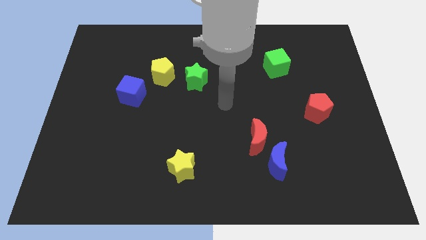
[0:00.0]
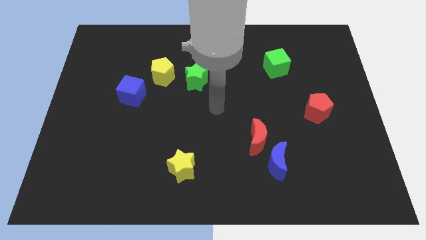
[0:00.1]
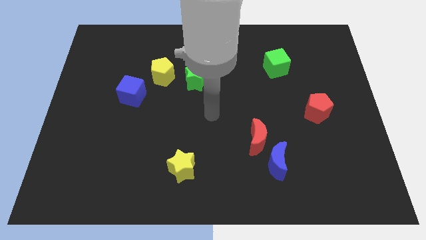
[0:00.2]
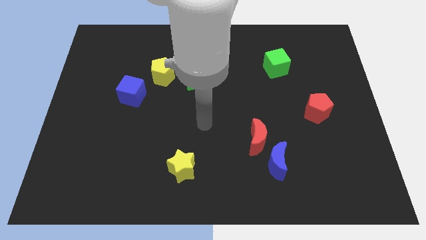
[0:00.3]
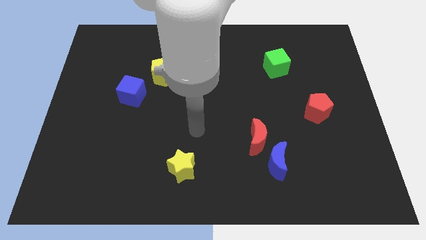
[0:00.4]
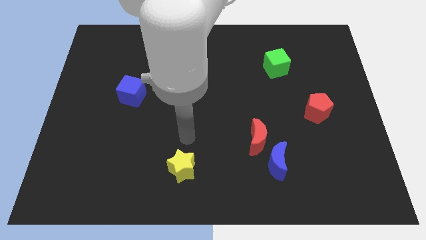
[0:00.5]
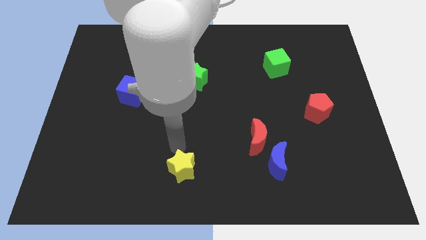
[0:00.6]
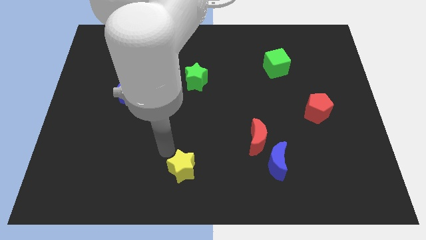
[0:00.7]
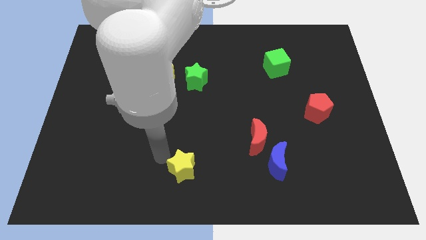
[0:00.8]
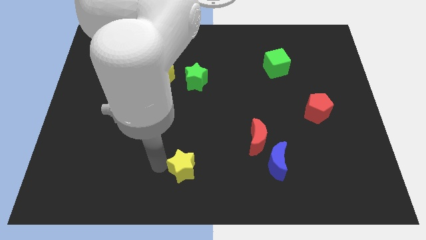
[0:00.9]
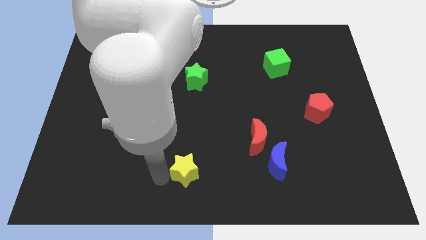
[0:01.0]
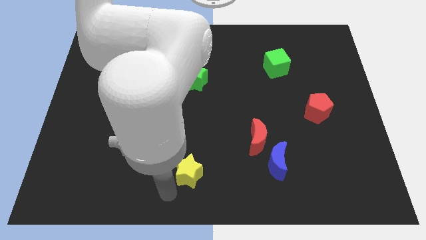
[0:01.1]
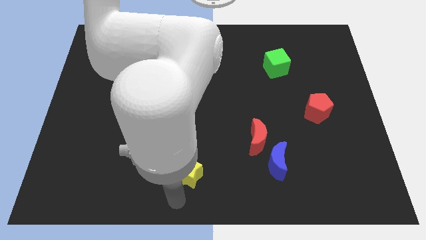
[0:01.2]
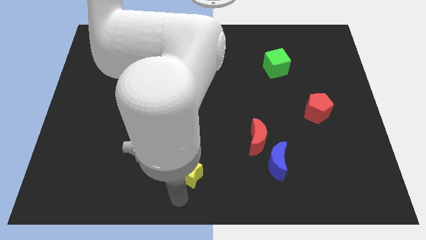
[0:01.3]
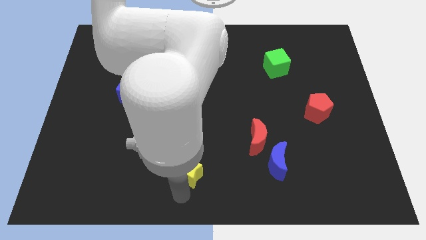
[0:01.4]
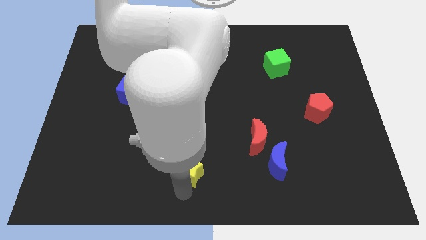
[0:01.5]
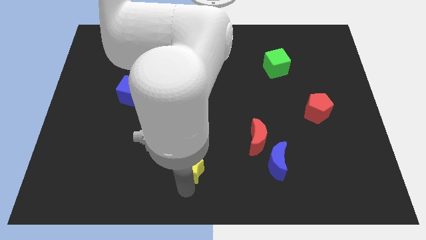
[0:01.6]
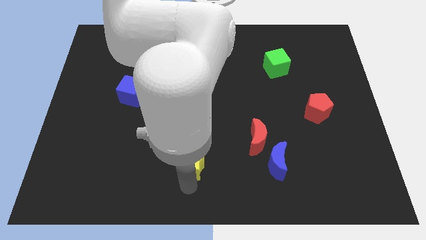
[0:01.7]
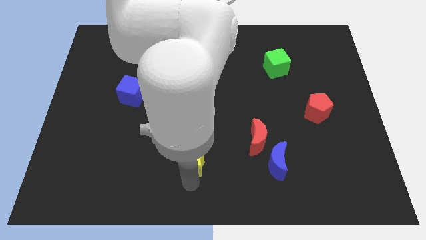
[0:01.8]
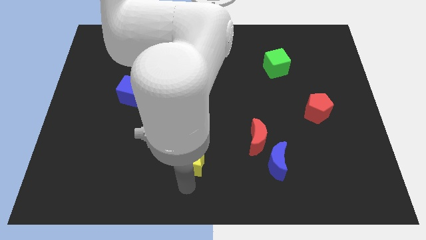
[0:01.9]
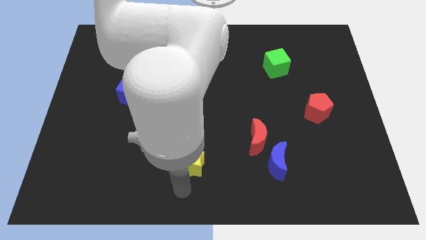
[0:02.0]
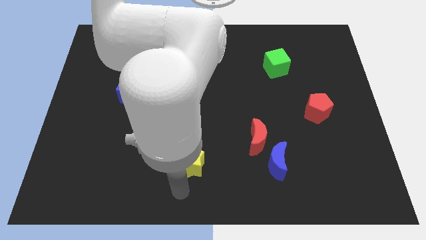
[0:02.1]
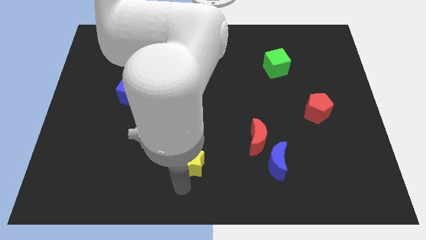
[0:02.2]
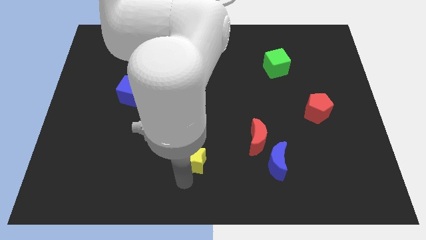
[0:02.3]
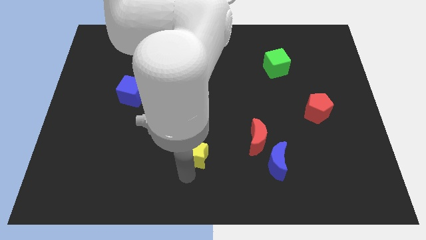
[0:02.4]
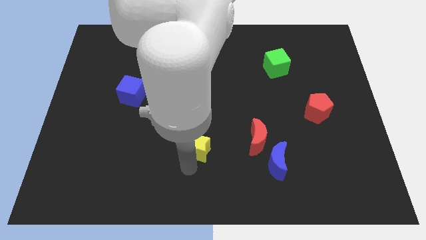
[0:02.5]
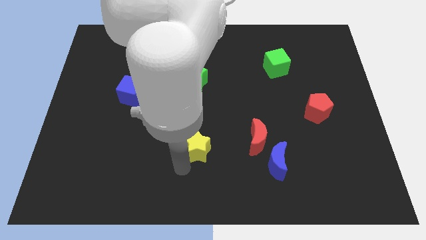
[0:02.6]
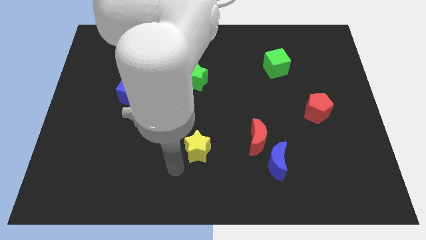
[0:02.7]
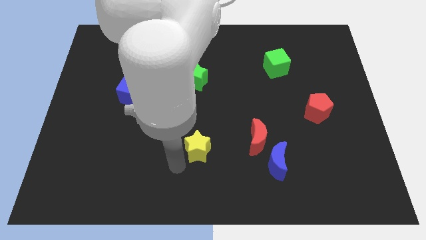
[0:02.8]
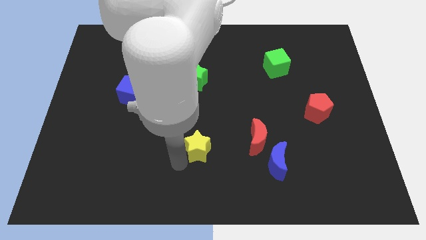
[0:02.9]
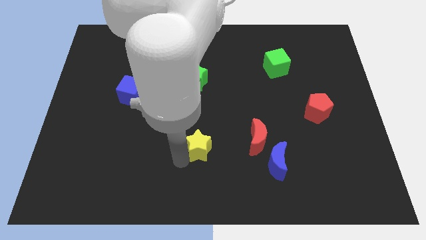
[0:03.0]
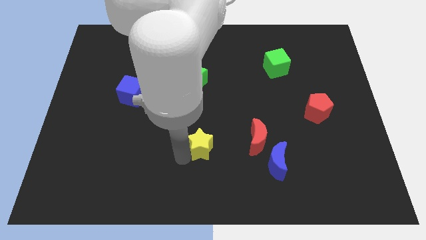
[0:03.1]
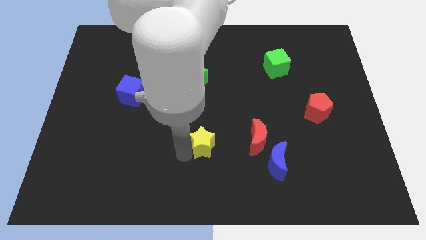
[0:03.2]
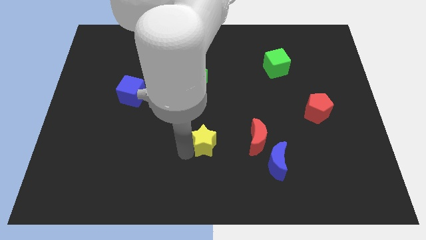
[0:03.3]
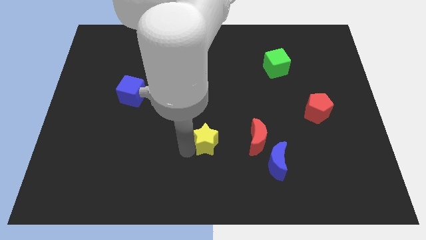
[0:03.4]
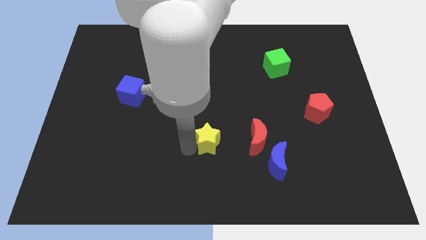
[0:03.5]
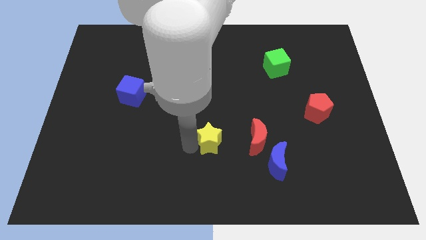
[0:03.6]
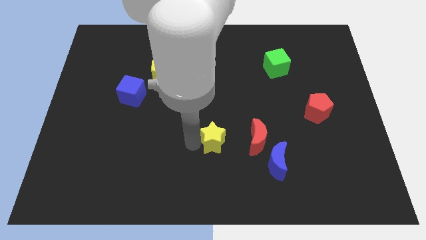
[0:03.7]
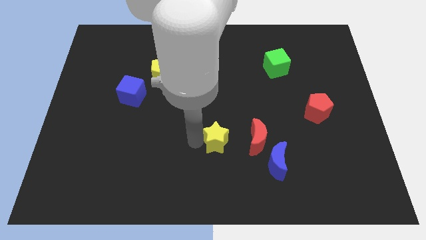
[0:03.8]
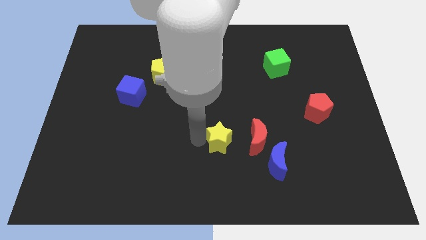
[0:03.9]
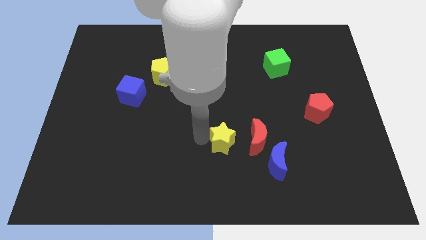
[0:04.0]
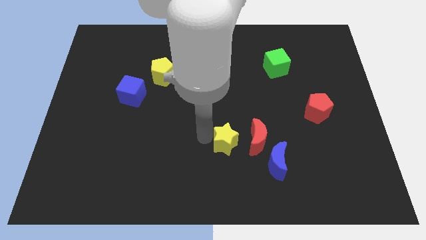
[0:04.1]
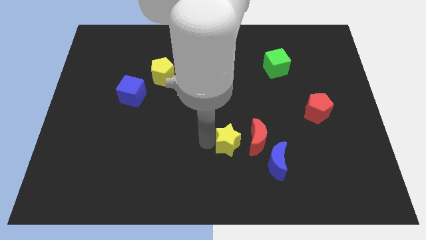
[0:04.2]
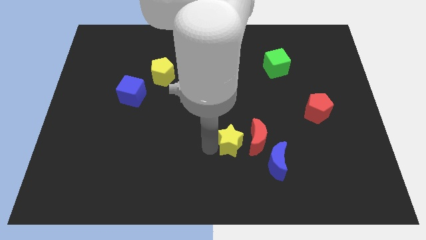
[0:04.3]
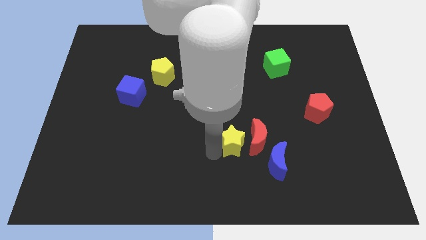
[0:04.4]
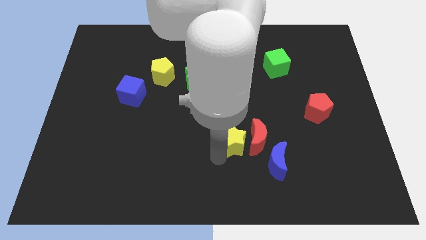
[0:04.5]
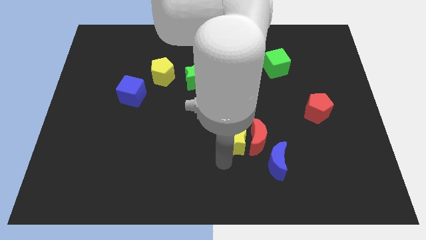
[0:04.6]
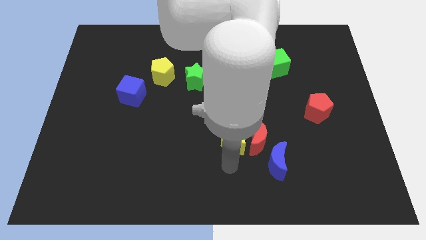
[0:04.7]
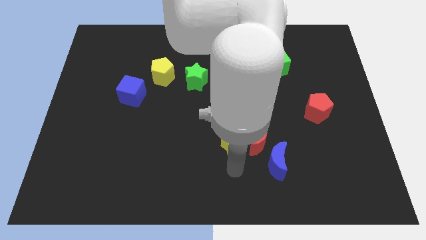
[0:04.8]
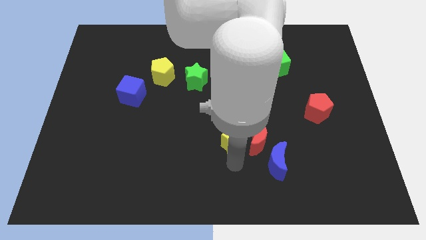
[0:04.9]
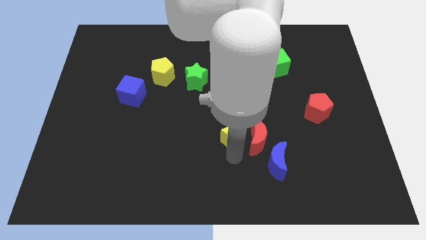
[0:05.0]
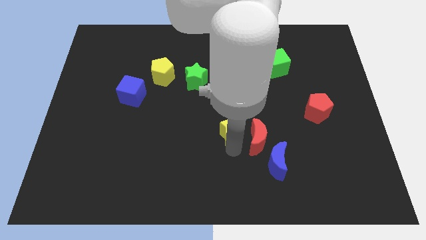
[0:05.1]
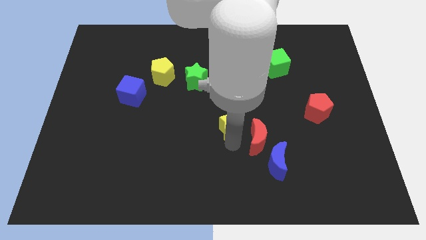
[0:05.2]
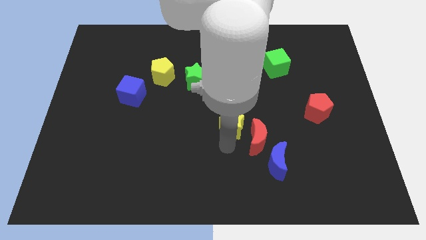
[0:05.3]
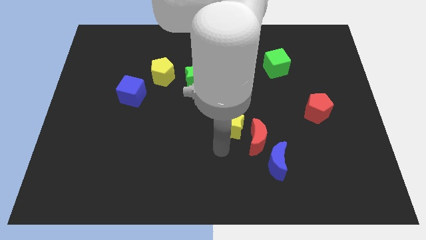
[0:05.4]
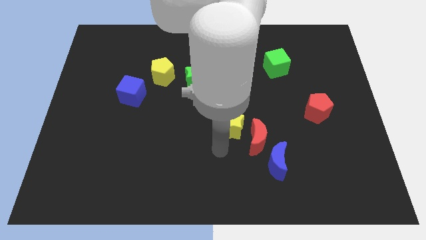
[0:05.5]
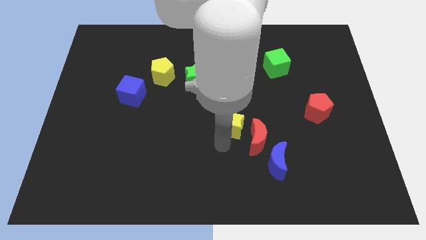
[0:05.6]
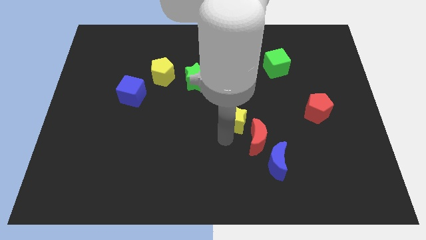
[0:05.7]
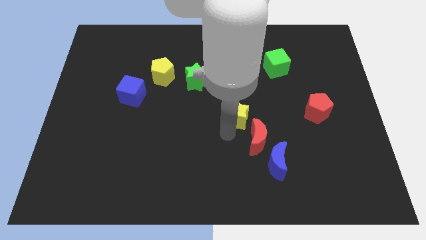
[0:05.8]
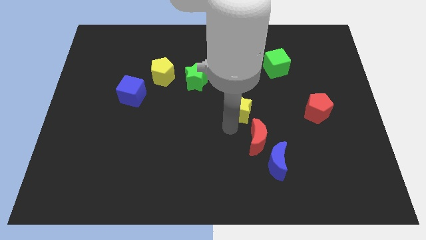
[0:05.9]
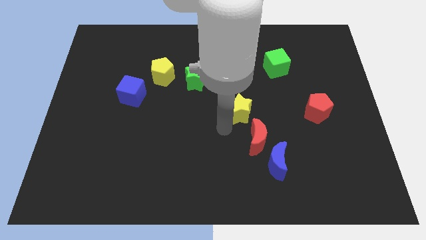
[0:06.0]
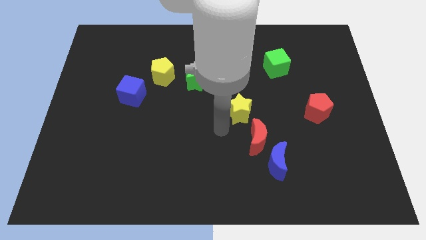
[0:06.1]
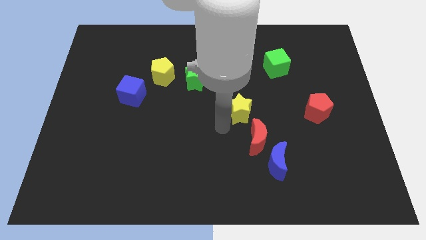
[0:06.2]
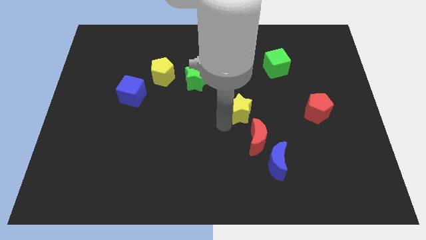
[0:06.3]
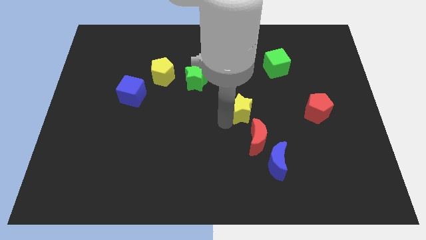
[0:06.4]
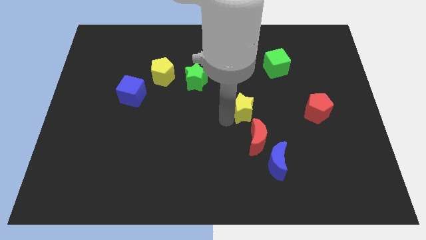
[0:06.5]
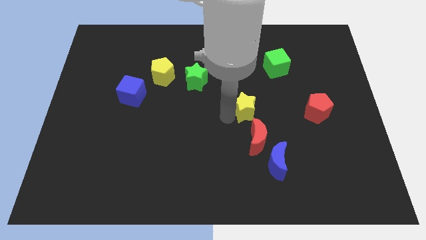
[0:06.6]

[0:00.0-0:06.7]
move the yellow star upwards and right diagonally

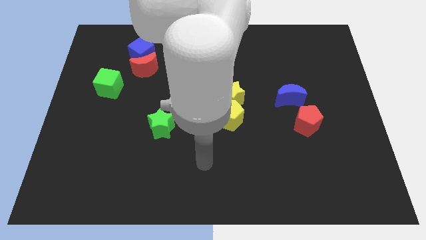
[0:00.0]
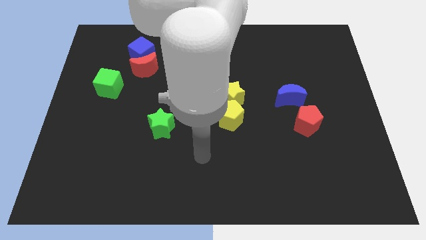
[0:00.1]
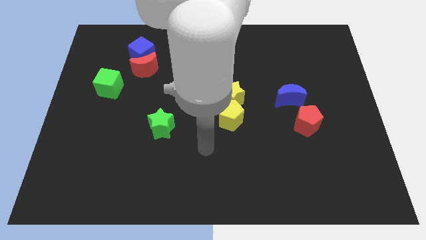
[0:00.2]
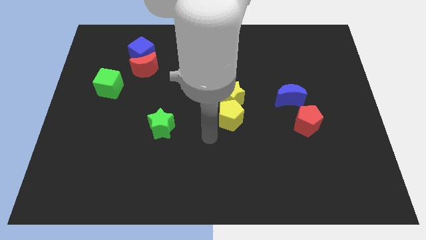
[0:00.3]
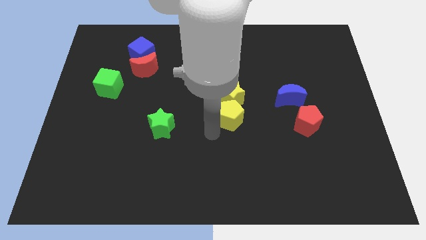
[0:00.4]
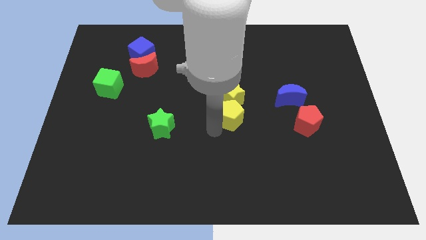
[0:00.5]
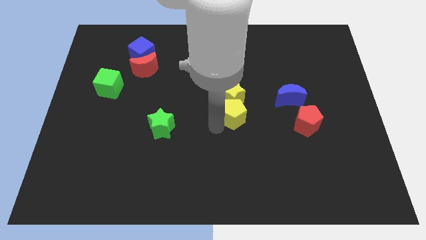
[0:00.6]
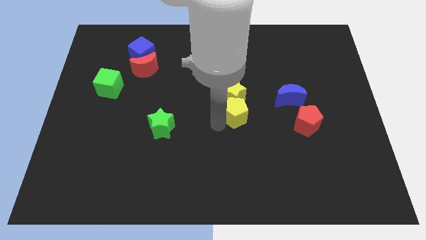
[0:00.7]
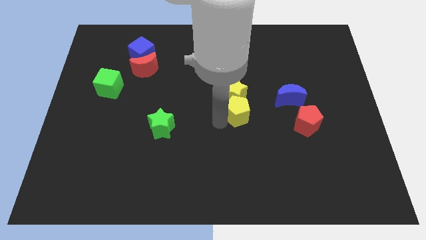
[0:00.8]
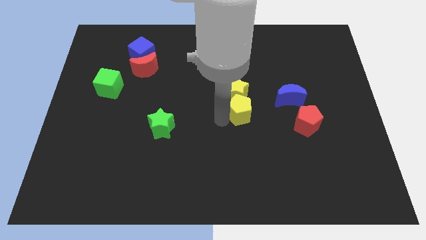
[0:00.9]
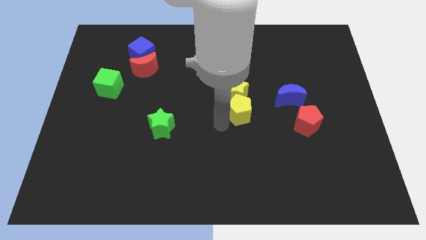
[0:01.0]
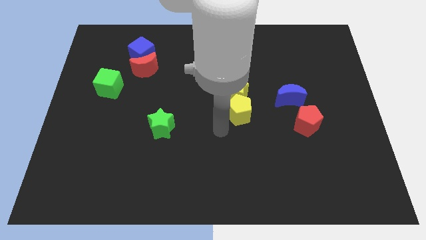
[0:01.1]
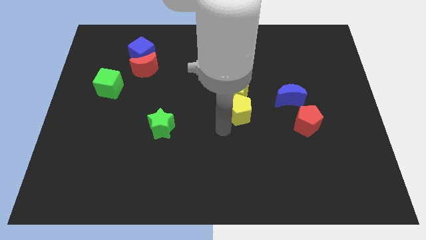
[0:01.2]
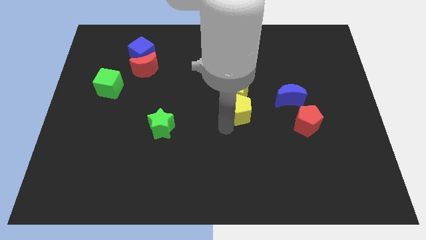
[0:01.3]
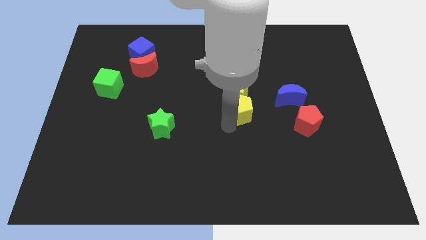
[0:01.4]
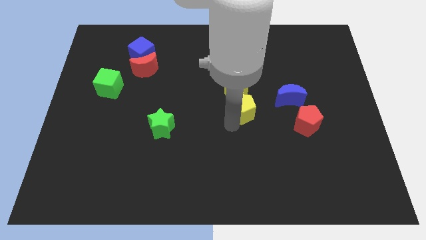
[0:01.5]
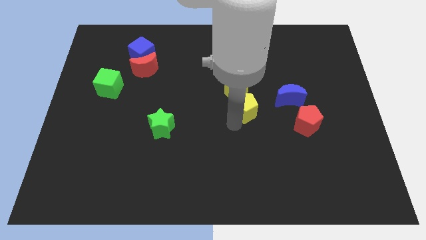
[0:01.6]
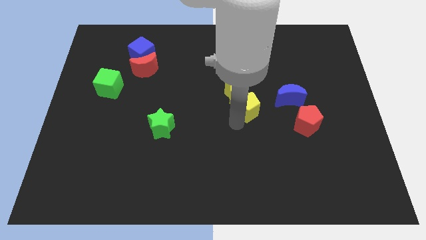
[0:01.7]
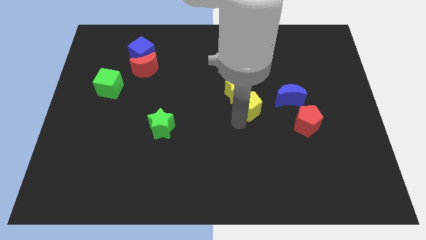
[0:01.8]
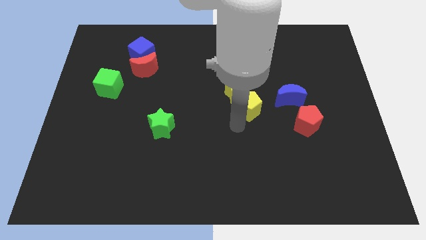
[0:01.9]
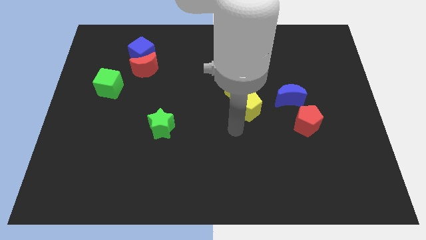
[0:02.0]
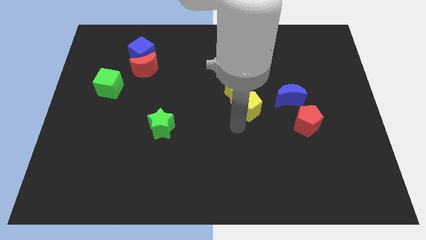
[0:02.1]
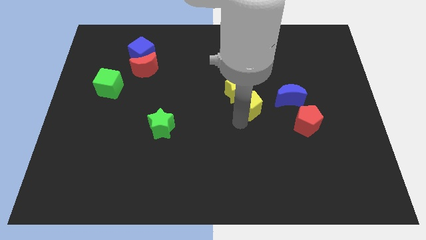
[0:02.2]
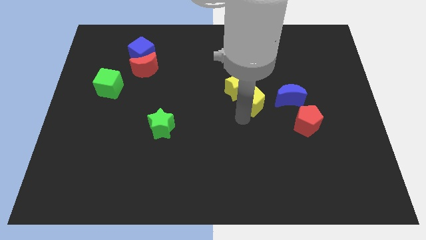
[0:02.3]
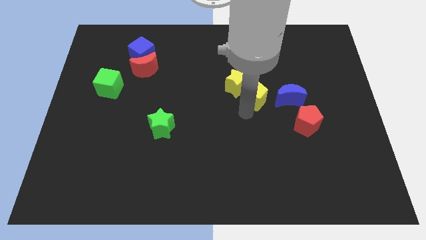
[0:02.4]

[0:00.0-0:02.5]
slightly slide the yellow pentagon up and to the right
